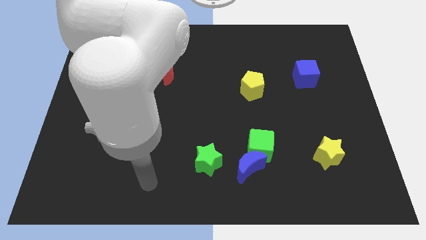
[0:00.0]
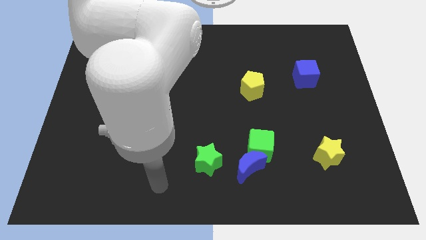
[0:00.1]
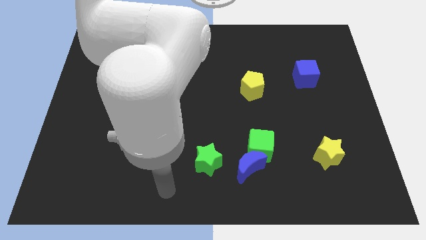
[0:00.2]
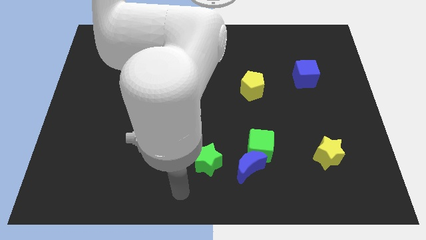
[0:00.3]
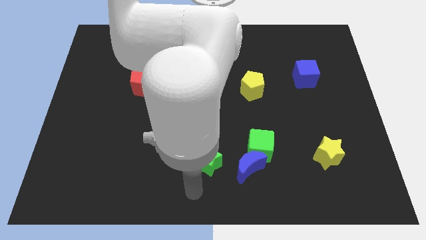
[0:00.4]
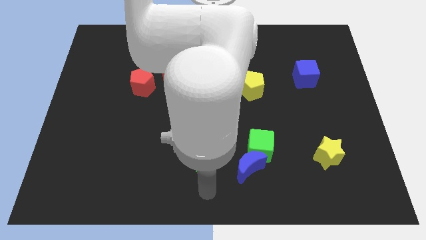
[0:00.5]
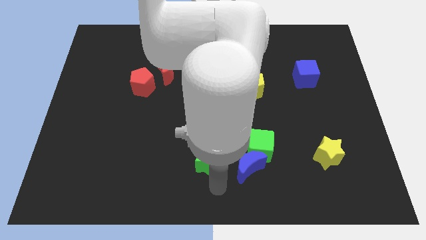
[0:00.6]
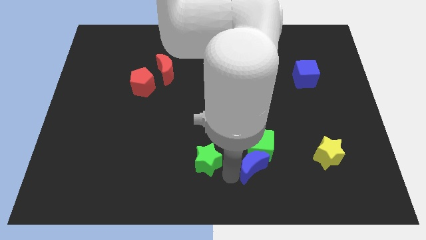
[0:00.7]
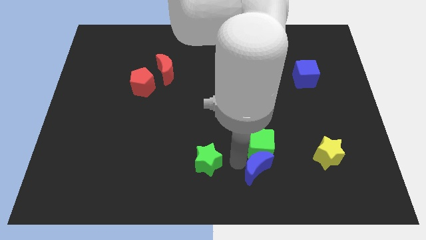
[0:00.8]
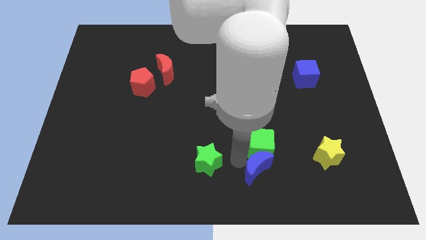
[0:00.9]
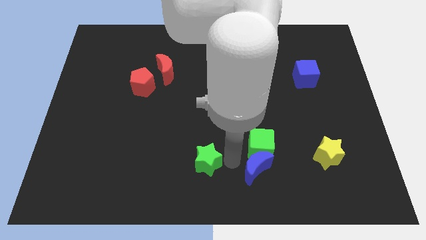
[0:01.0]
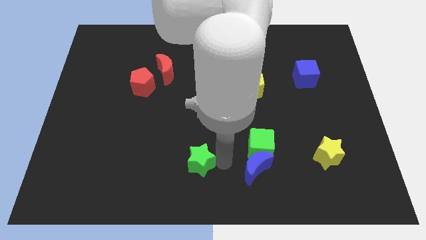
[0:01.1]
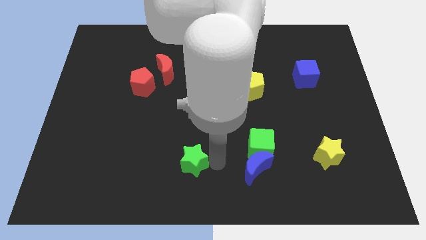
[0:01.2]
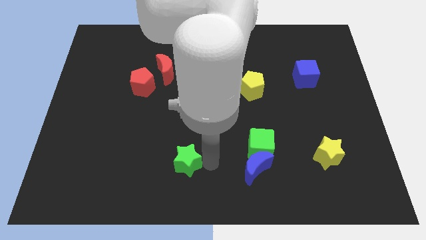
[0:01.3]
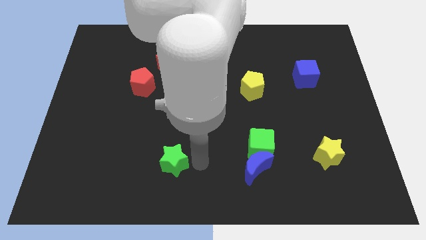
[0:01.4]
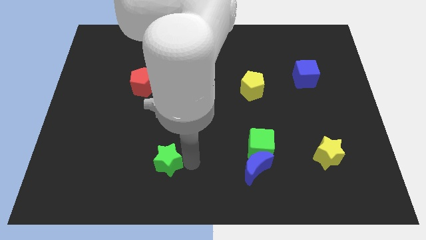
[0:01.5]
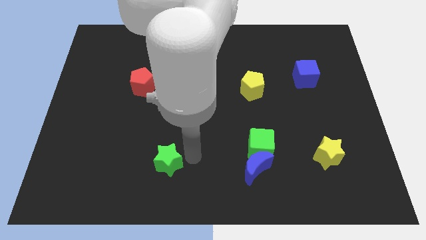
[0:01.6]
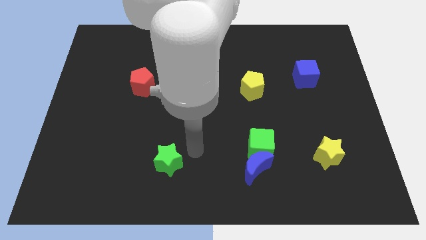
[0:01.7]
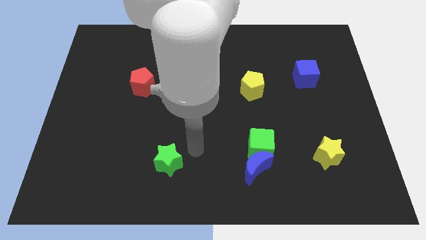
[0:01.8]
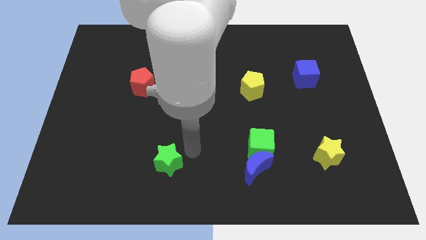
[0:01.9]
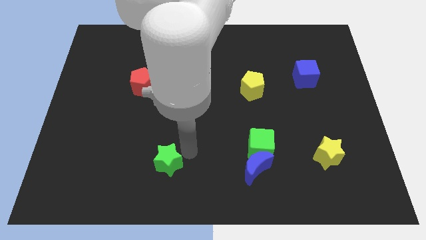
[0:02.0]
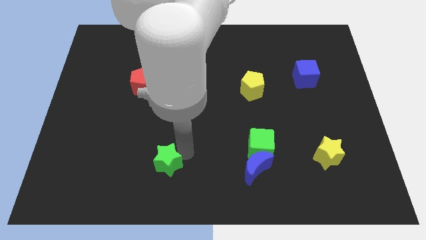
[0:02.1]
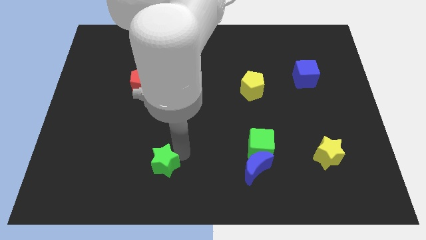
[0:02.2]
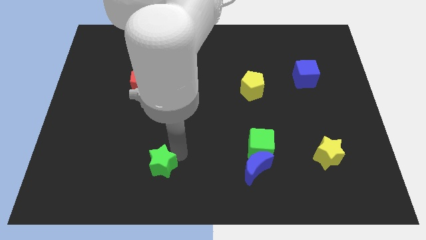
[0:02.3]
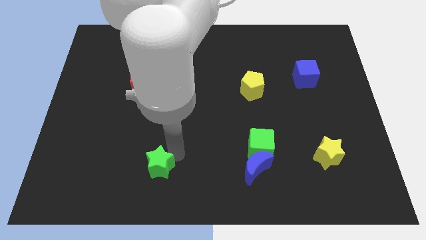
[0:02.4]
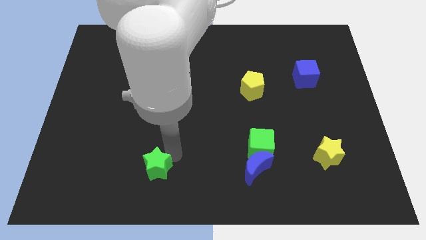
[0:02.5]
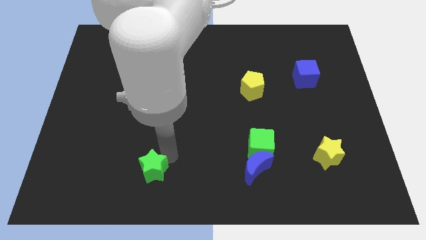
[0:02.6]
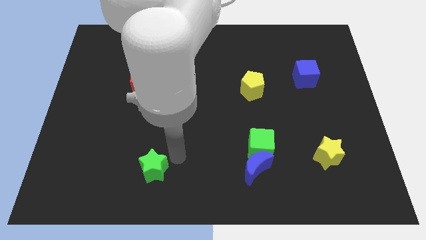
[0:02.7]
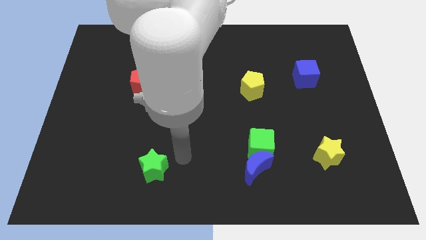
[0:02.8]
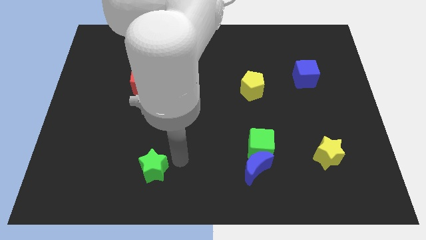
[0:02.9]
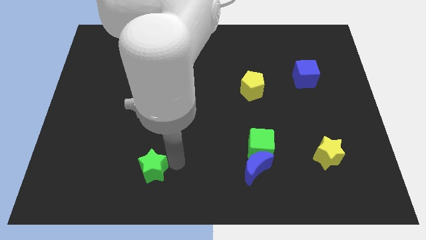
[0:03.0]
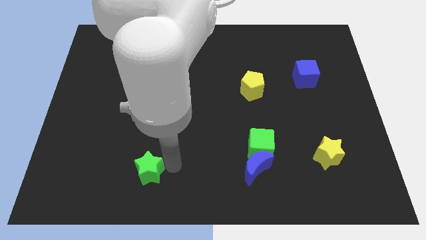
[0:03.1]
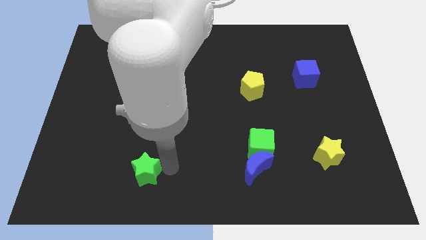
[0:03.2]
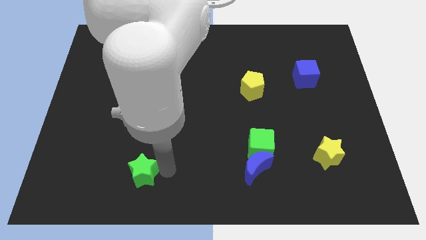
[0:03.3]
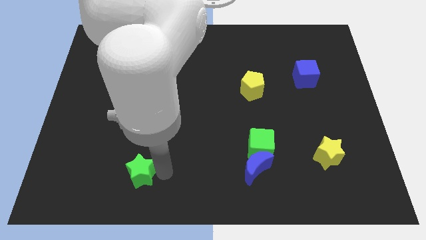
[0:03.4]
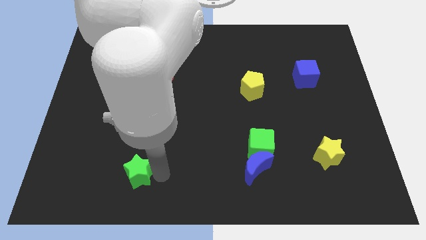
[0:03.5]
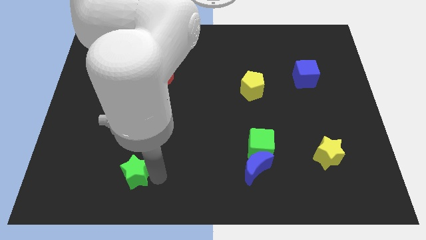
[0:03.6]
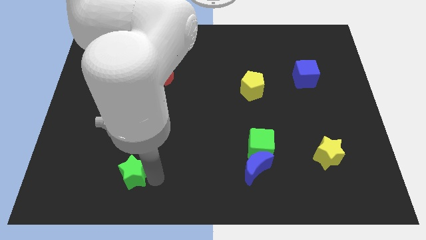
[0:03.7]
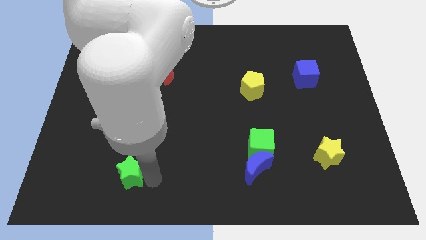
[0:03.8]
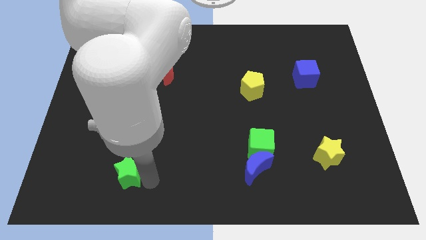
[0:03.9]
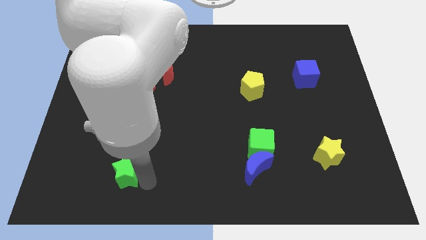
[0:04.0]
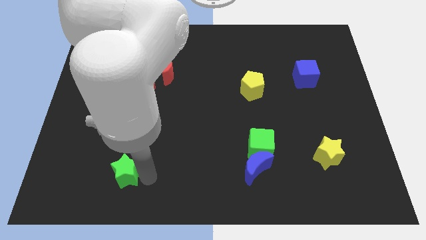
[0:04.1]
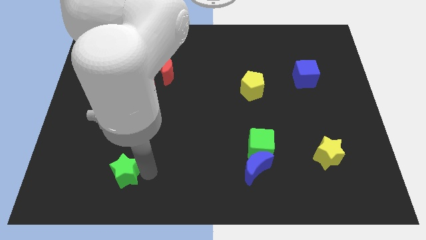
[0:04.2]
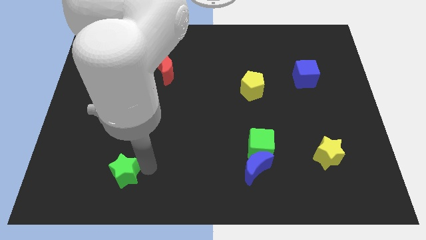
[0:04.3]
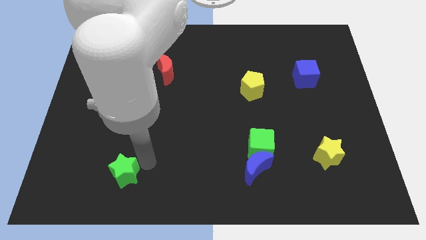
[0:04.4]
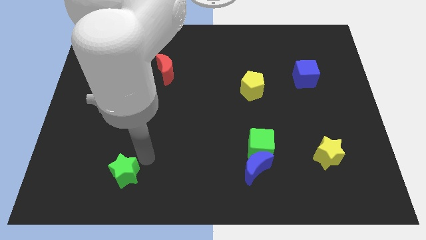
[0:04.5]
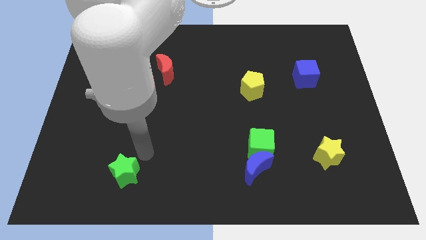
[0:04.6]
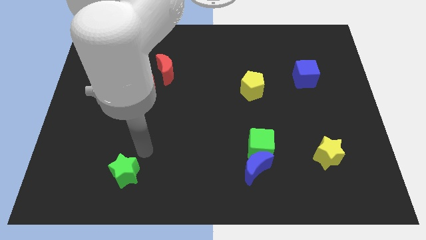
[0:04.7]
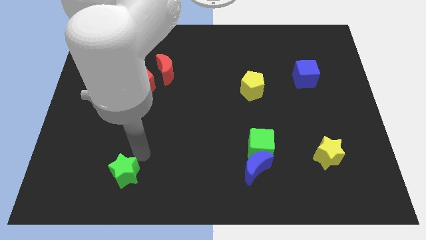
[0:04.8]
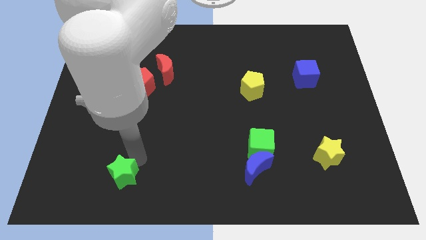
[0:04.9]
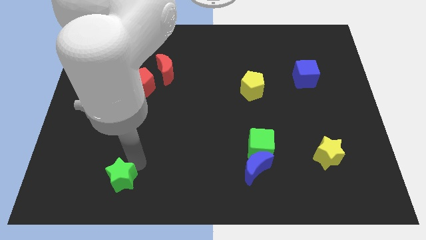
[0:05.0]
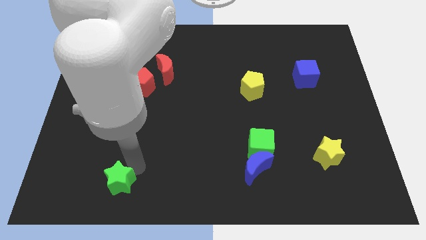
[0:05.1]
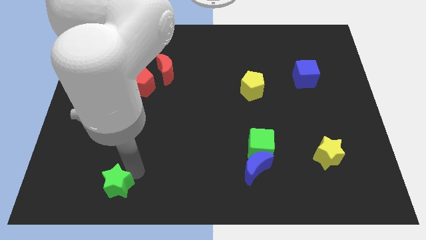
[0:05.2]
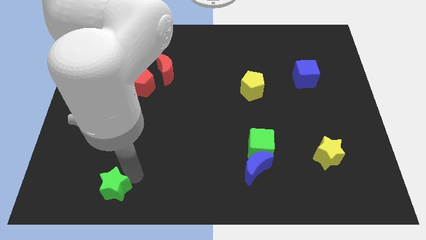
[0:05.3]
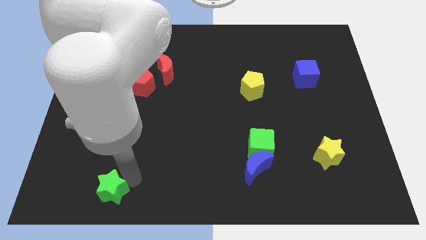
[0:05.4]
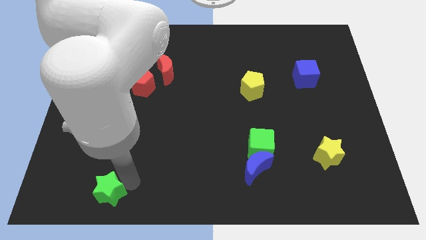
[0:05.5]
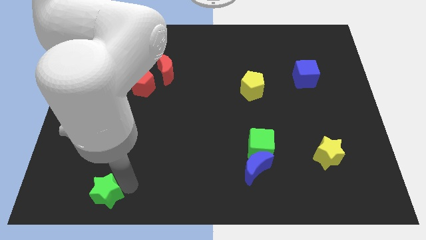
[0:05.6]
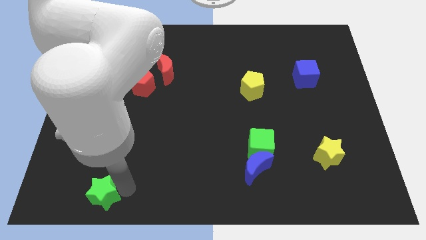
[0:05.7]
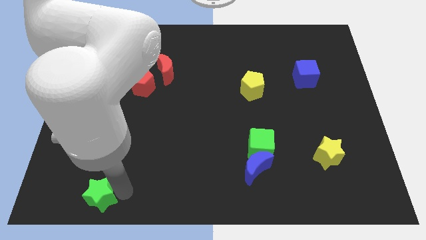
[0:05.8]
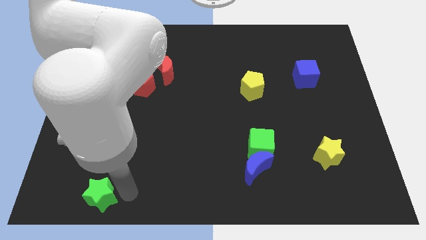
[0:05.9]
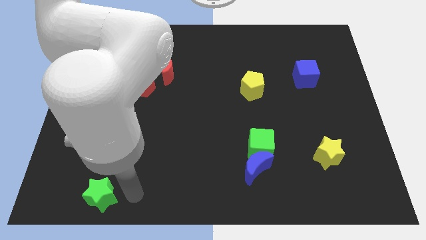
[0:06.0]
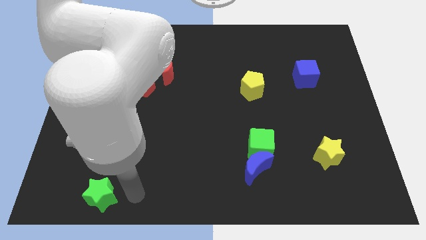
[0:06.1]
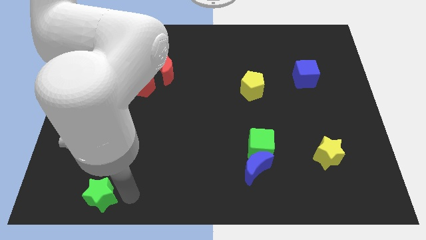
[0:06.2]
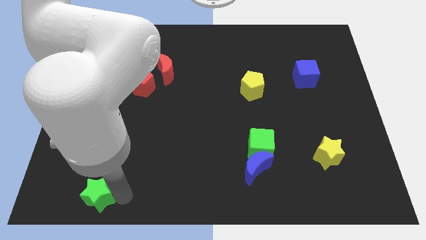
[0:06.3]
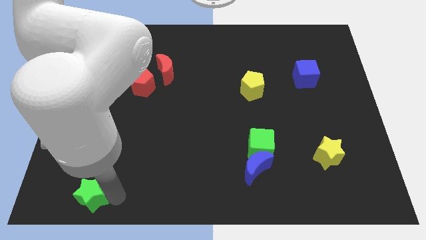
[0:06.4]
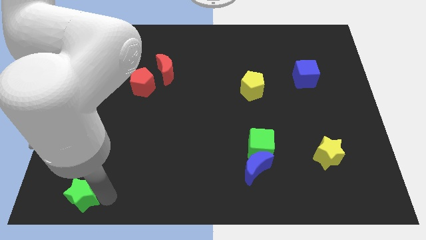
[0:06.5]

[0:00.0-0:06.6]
move the green star to the bottom left corner
